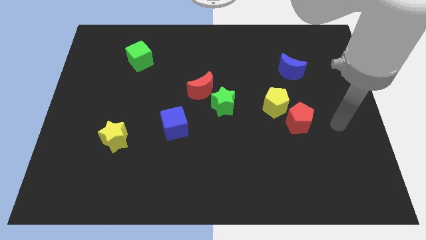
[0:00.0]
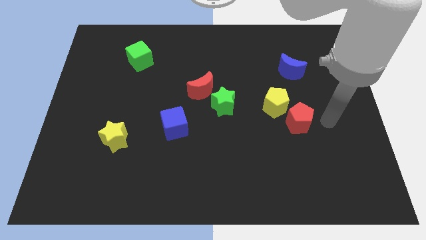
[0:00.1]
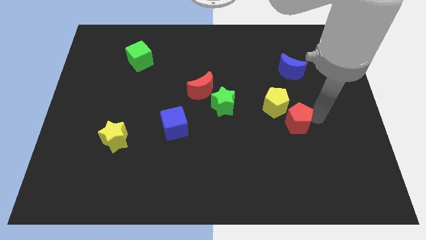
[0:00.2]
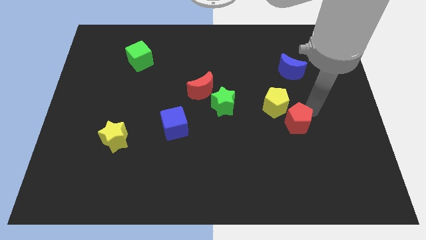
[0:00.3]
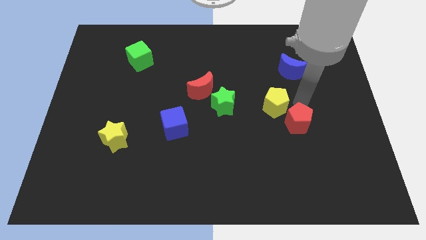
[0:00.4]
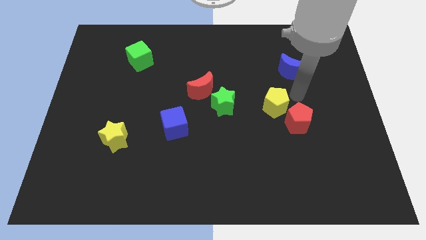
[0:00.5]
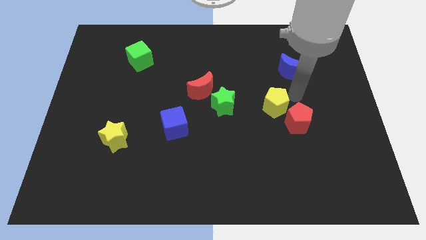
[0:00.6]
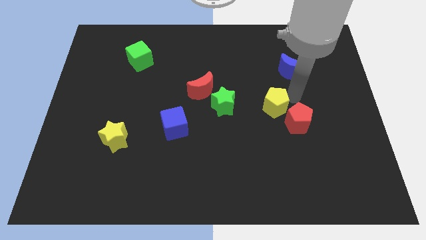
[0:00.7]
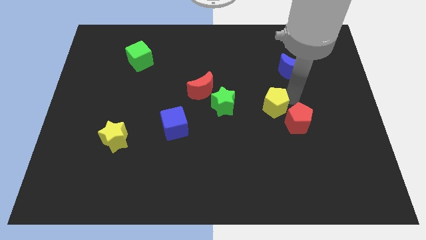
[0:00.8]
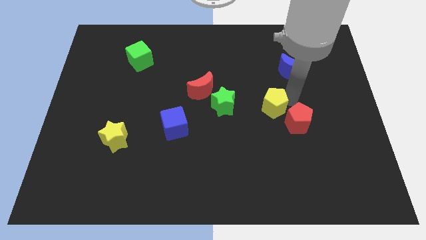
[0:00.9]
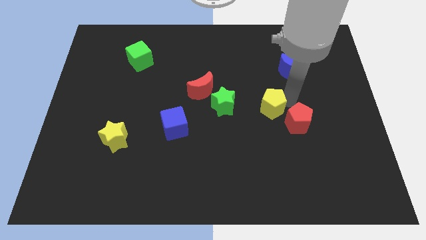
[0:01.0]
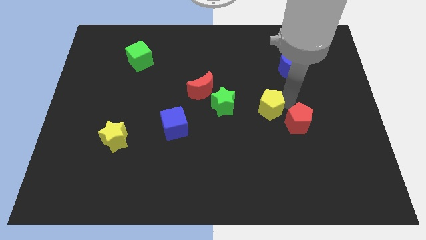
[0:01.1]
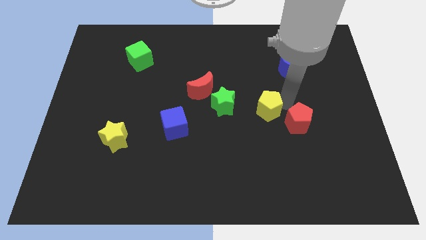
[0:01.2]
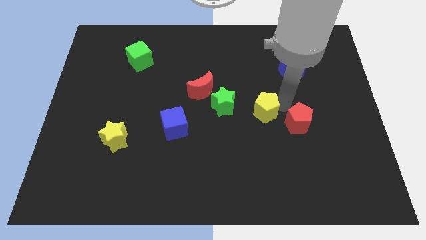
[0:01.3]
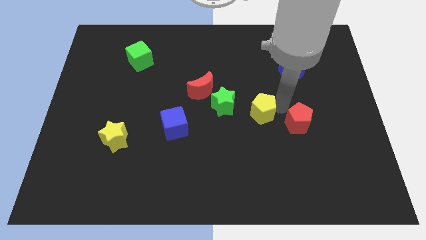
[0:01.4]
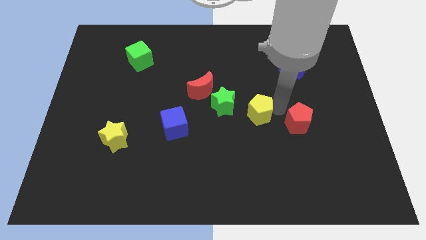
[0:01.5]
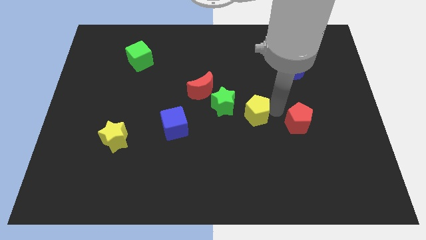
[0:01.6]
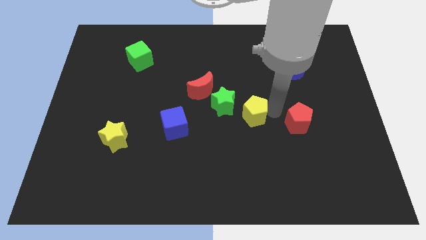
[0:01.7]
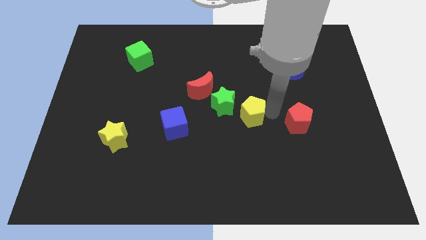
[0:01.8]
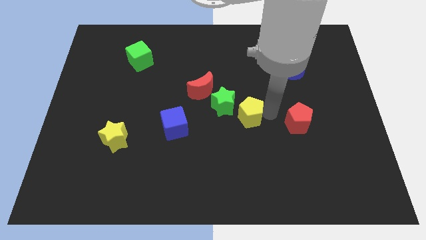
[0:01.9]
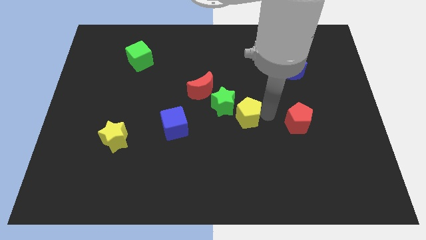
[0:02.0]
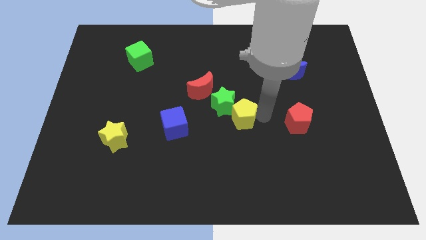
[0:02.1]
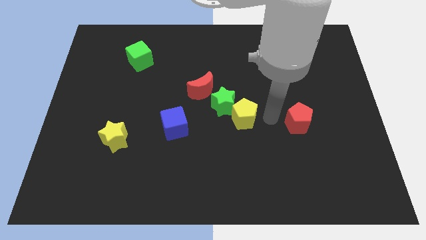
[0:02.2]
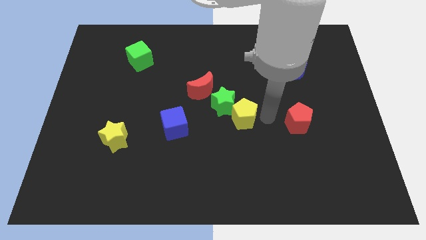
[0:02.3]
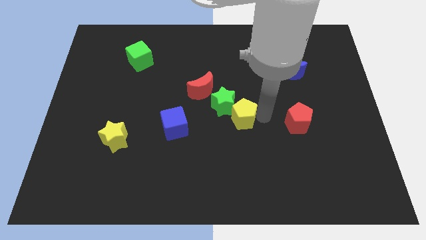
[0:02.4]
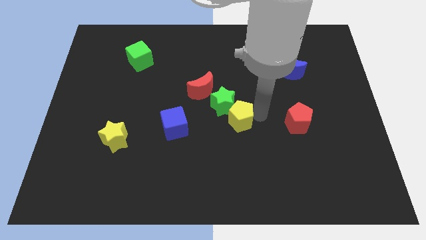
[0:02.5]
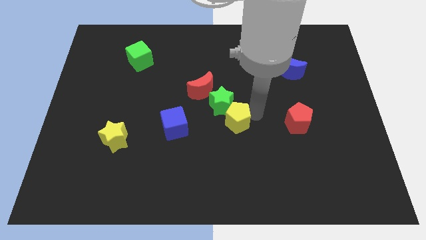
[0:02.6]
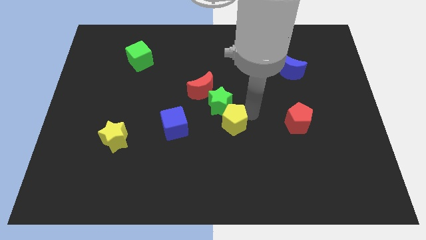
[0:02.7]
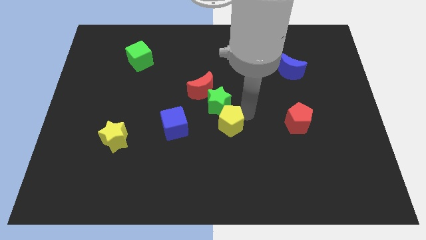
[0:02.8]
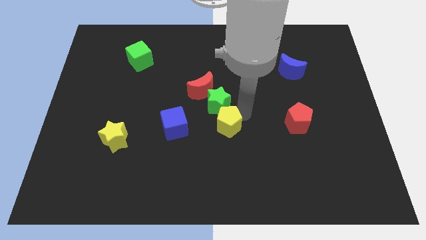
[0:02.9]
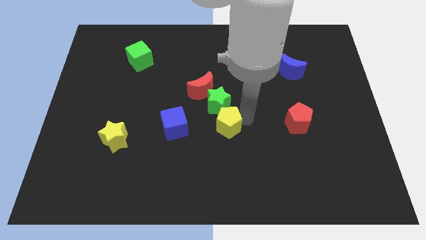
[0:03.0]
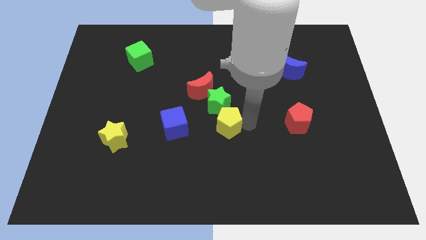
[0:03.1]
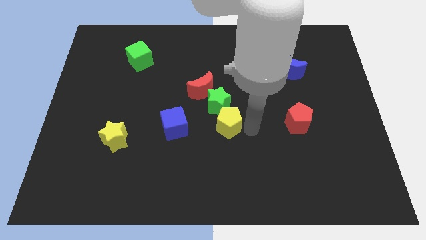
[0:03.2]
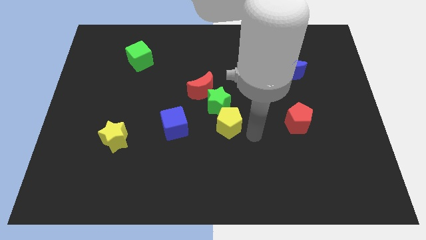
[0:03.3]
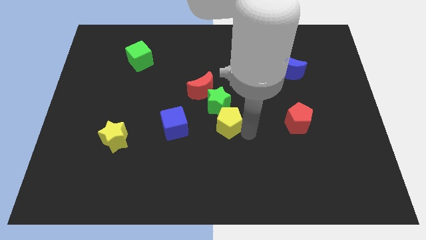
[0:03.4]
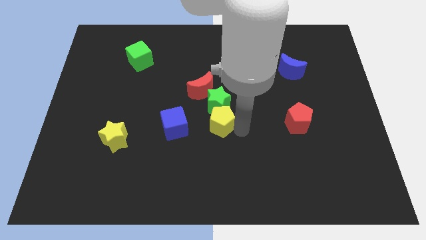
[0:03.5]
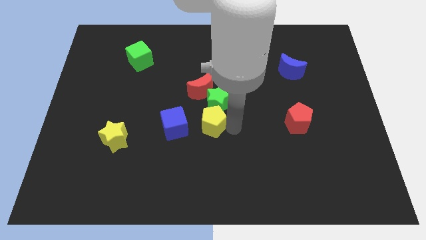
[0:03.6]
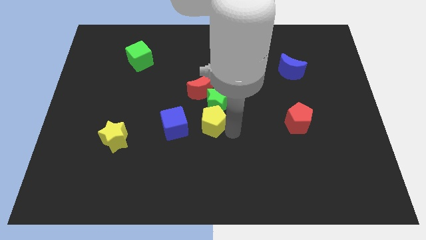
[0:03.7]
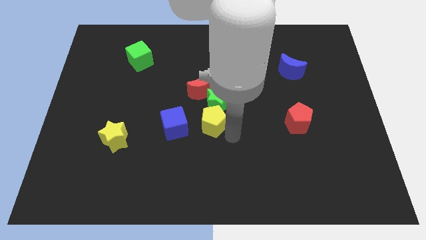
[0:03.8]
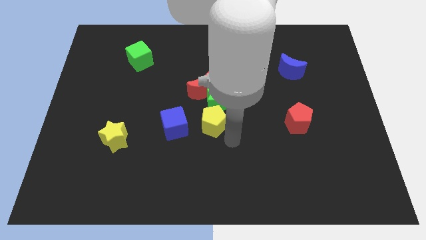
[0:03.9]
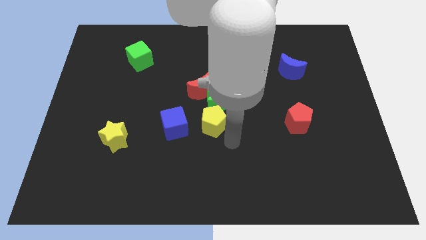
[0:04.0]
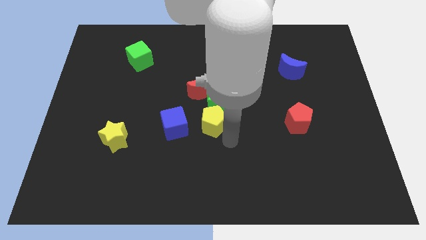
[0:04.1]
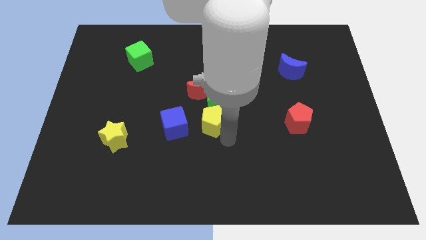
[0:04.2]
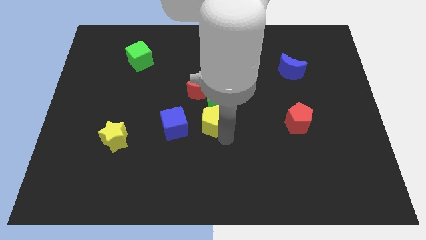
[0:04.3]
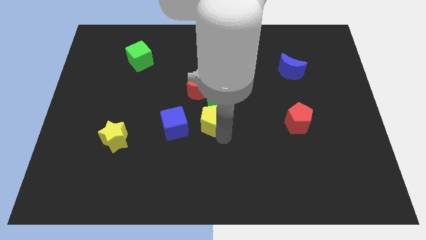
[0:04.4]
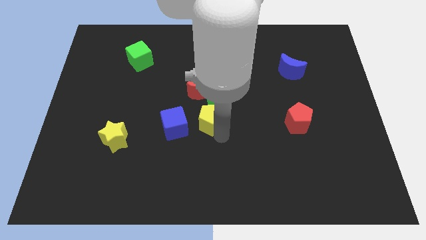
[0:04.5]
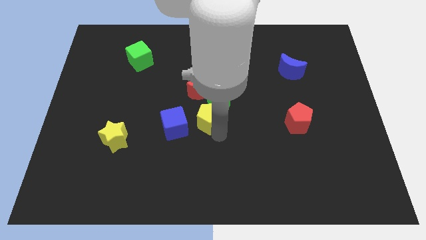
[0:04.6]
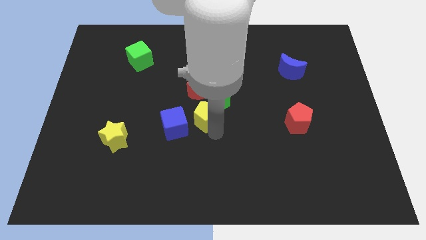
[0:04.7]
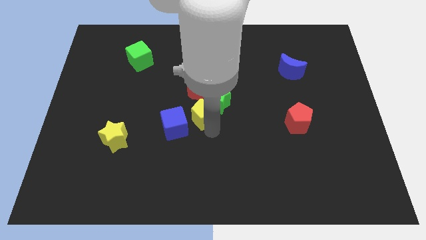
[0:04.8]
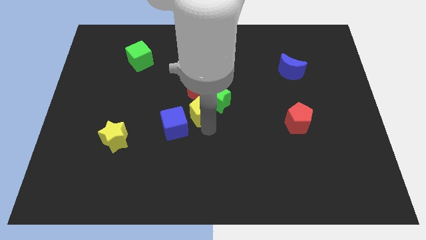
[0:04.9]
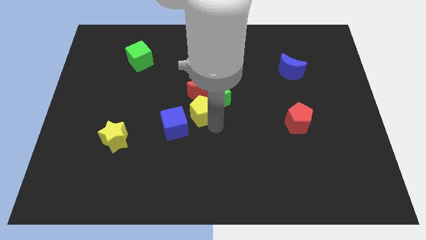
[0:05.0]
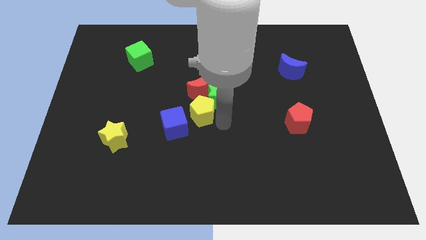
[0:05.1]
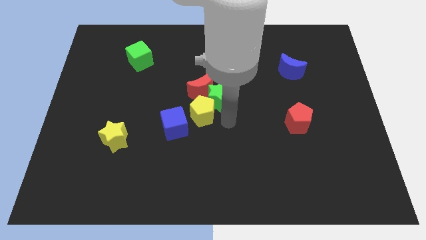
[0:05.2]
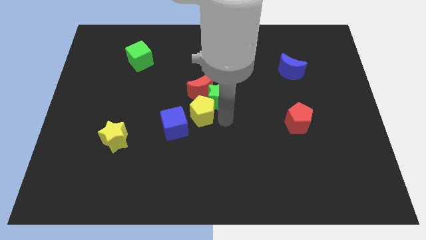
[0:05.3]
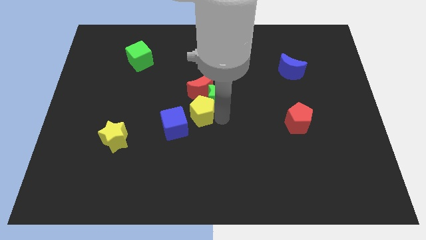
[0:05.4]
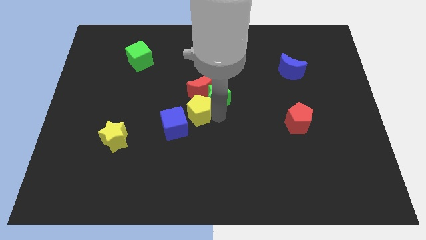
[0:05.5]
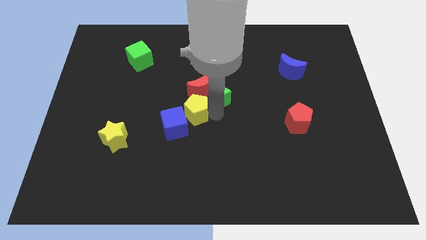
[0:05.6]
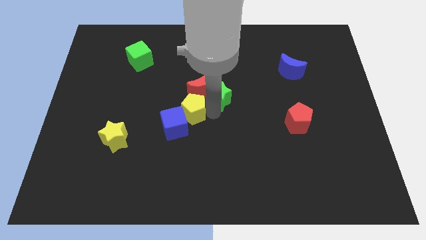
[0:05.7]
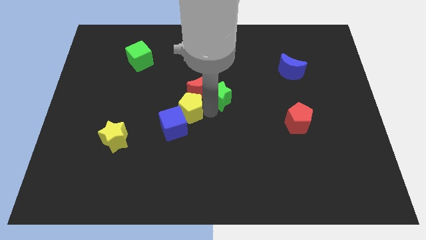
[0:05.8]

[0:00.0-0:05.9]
slide the yellow pentagon to the left

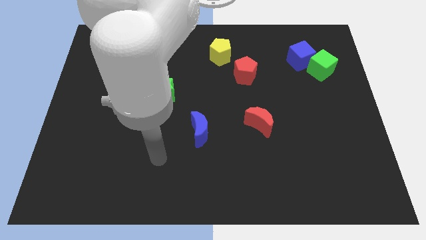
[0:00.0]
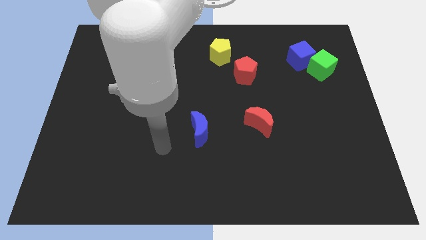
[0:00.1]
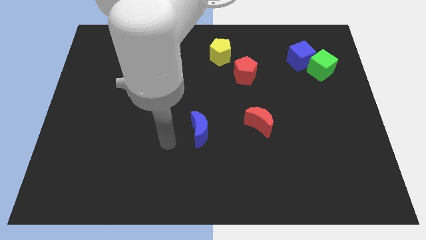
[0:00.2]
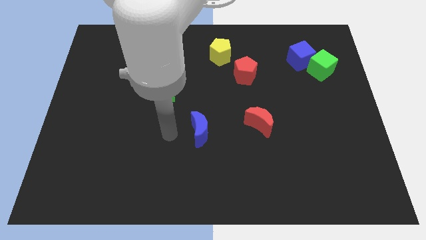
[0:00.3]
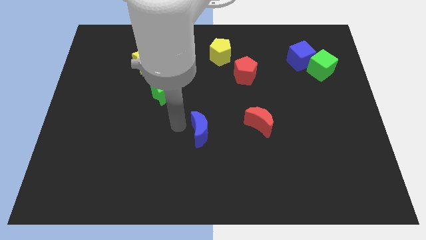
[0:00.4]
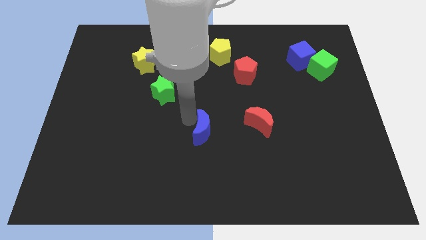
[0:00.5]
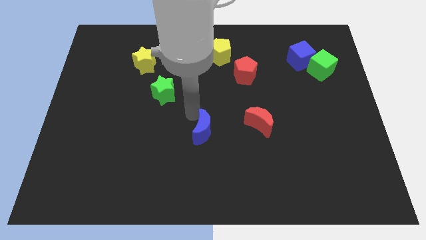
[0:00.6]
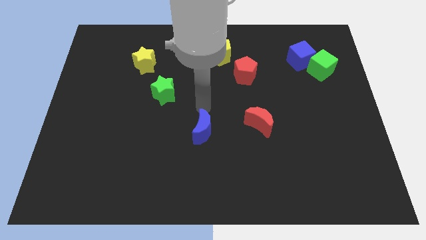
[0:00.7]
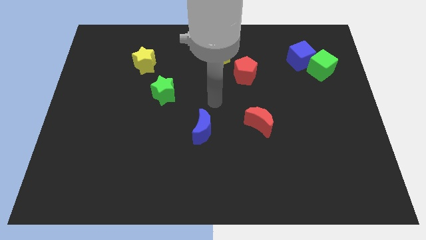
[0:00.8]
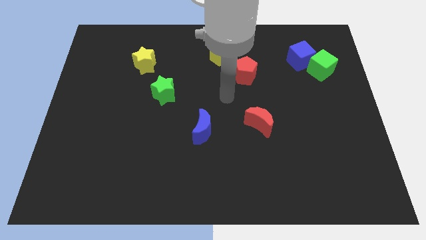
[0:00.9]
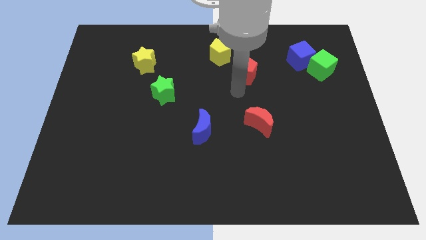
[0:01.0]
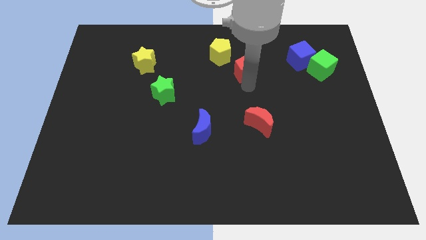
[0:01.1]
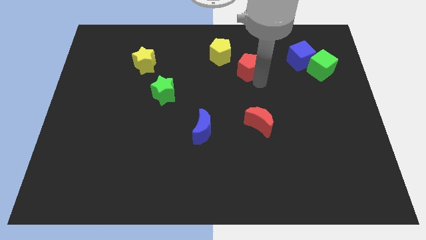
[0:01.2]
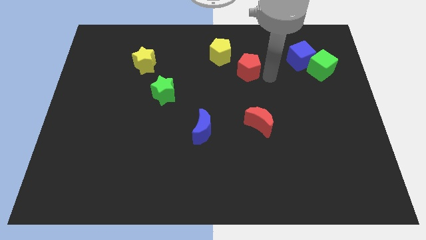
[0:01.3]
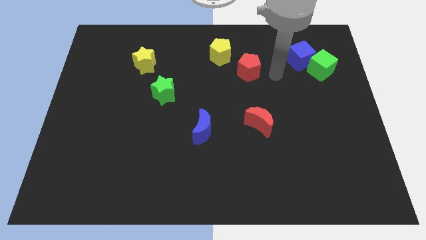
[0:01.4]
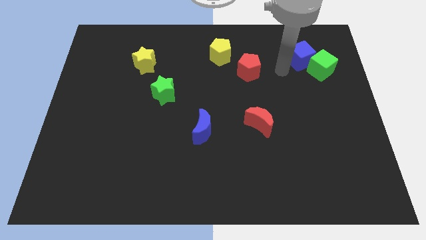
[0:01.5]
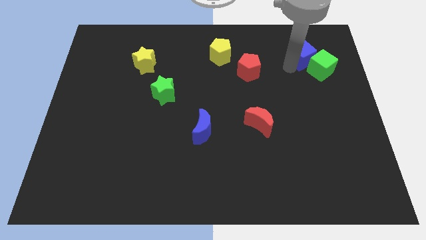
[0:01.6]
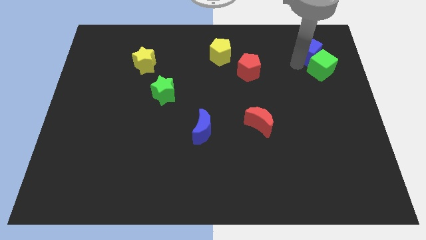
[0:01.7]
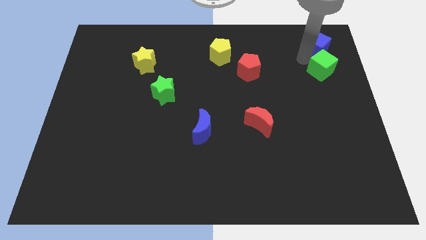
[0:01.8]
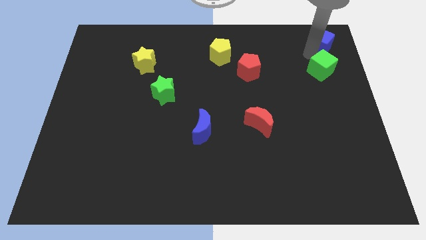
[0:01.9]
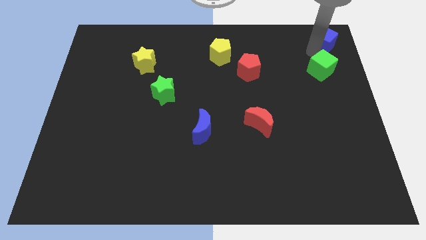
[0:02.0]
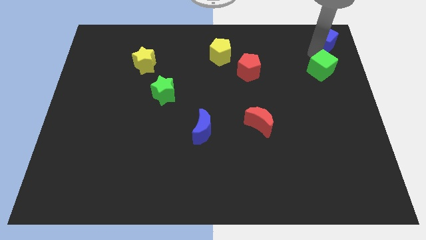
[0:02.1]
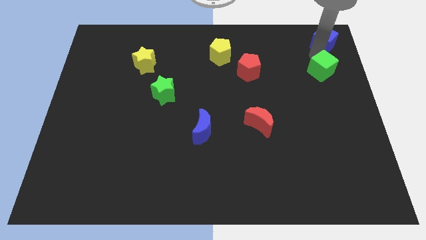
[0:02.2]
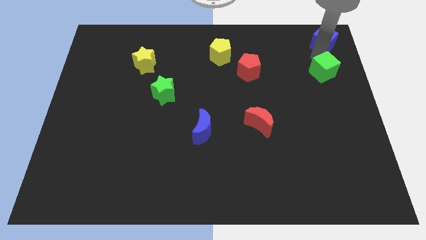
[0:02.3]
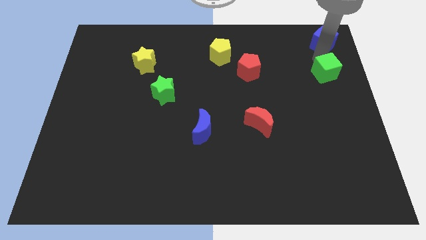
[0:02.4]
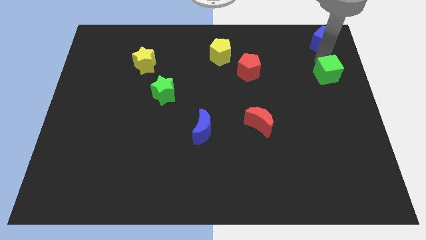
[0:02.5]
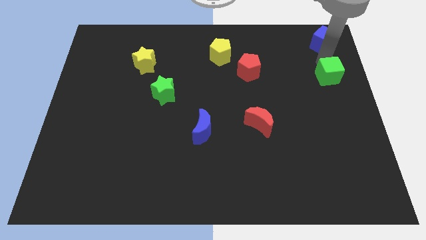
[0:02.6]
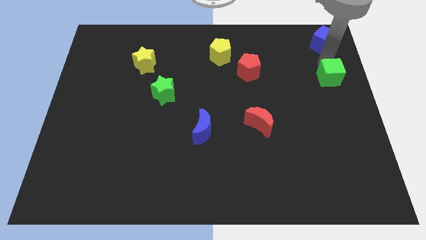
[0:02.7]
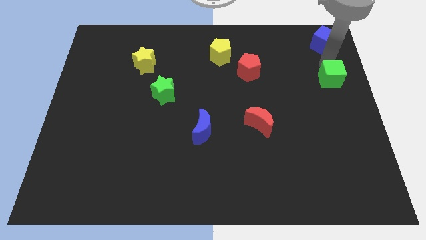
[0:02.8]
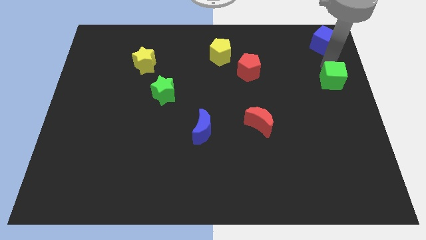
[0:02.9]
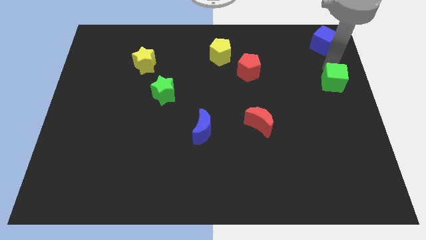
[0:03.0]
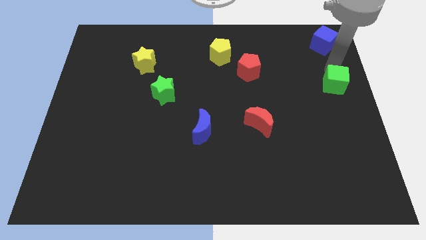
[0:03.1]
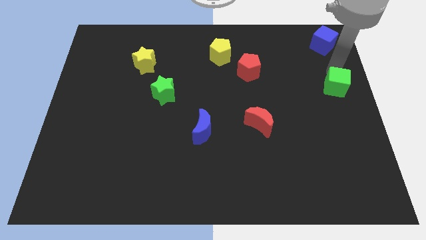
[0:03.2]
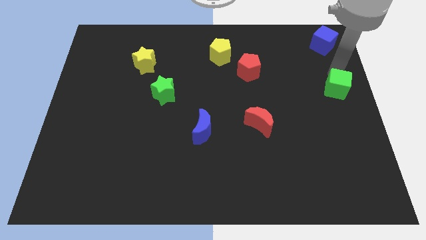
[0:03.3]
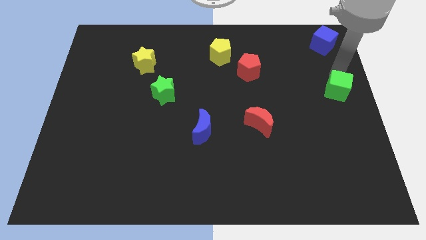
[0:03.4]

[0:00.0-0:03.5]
move the green cube a little down
